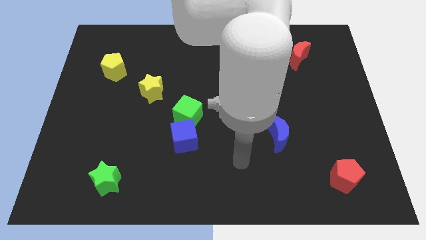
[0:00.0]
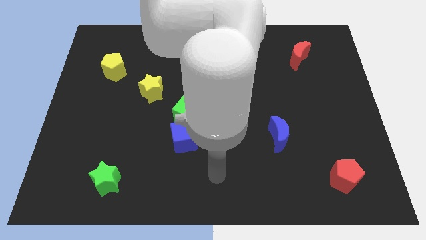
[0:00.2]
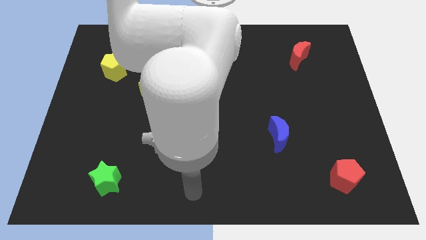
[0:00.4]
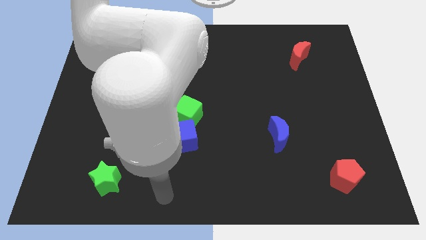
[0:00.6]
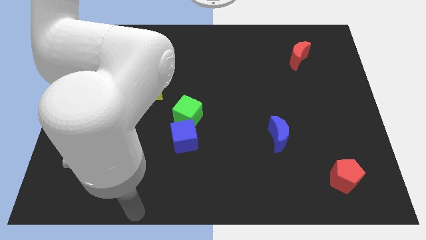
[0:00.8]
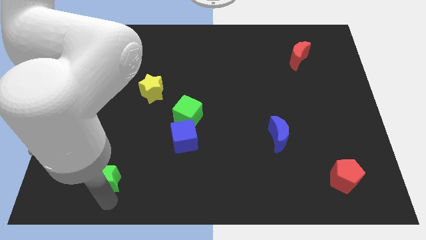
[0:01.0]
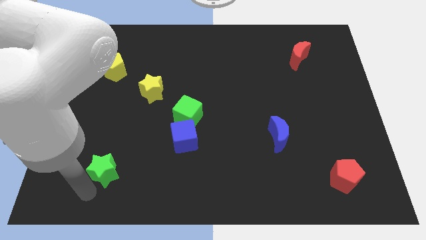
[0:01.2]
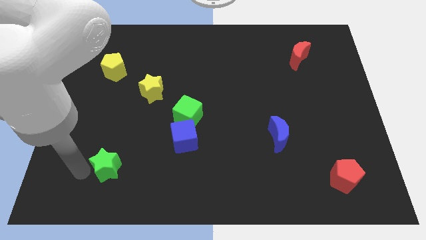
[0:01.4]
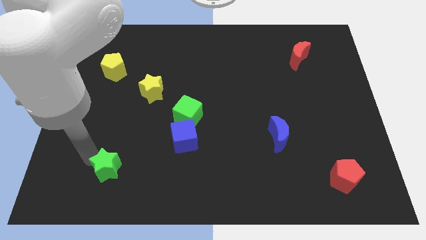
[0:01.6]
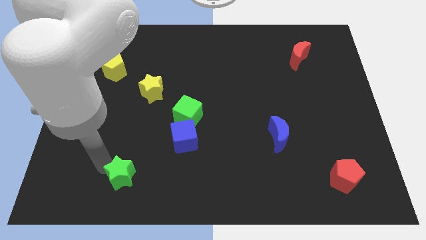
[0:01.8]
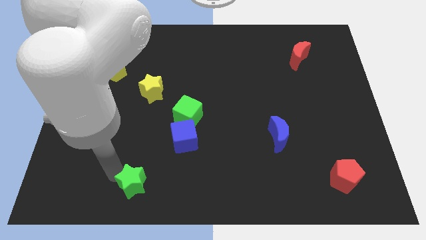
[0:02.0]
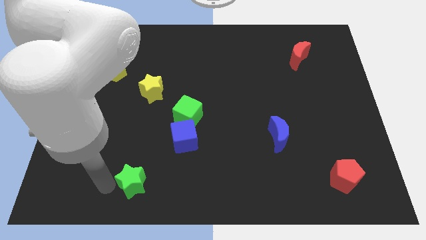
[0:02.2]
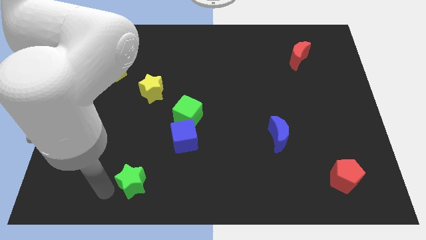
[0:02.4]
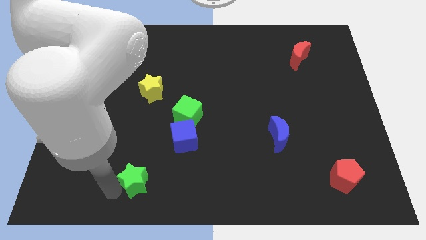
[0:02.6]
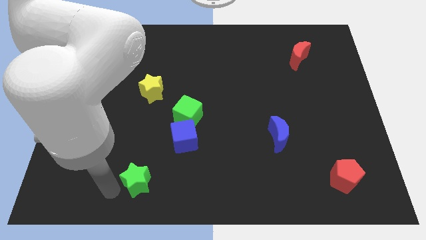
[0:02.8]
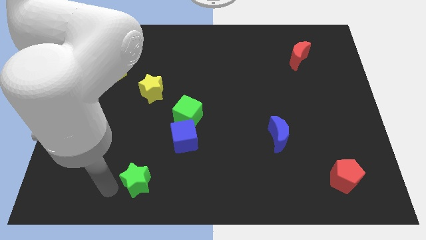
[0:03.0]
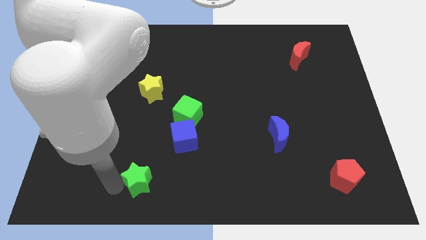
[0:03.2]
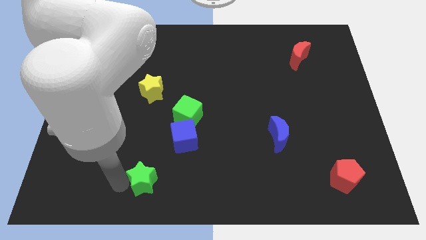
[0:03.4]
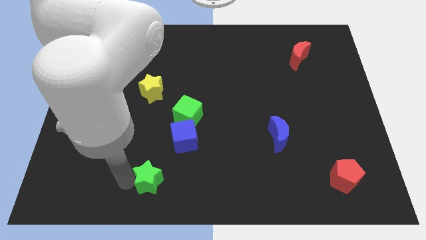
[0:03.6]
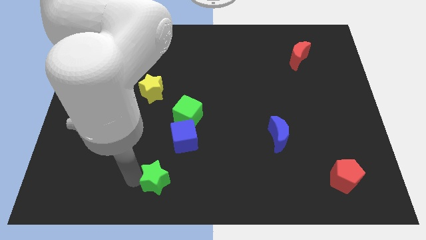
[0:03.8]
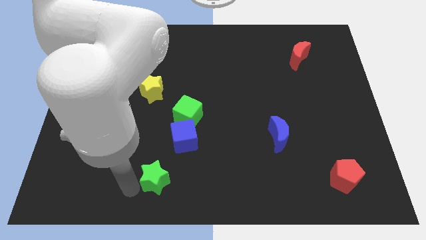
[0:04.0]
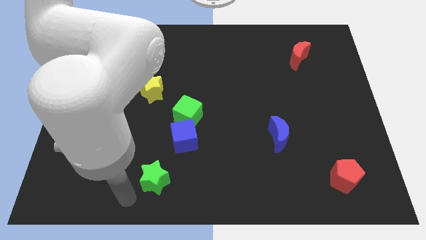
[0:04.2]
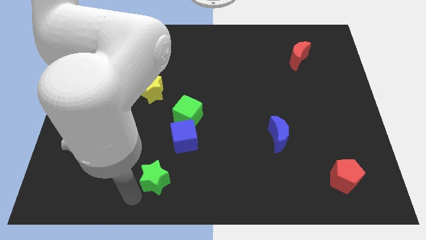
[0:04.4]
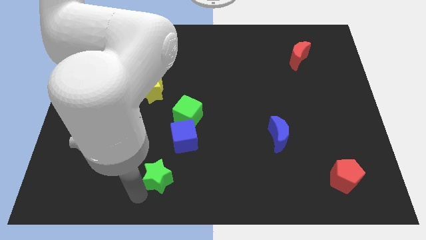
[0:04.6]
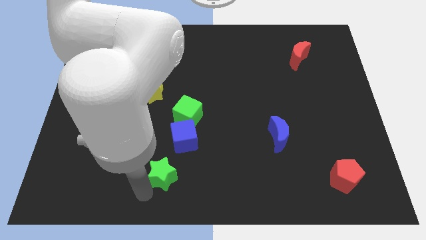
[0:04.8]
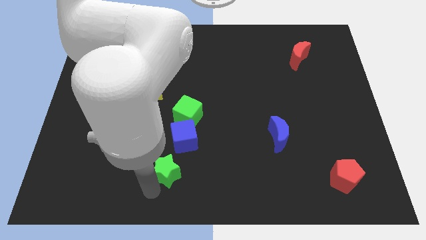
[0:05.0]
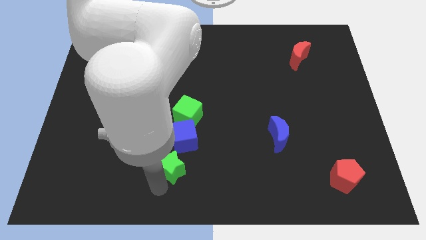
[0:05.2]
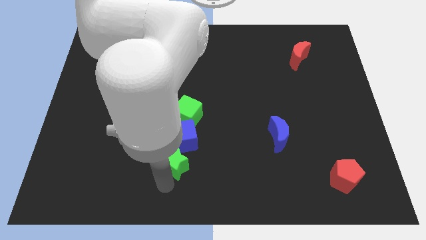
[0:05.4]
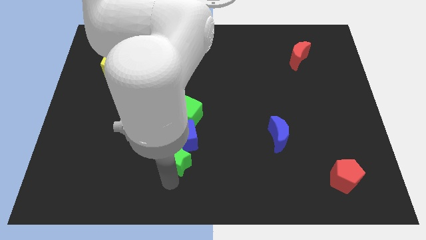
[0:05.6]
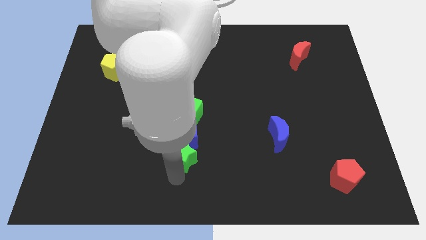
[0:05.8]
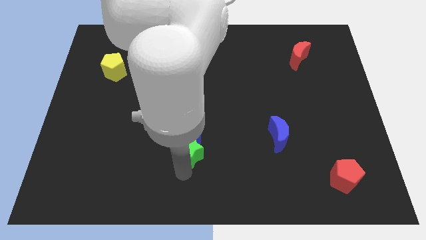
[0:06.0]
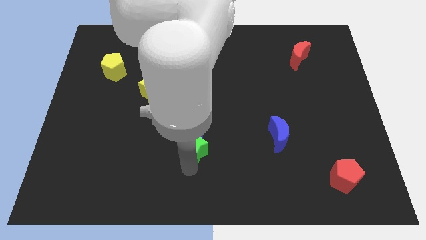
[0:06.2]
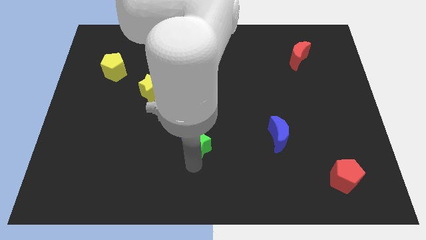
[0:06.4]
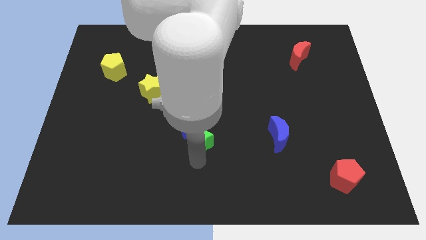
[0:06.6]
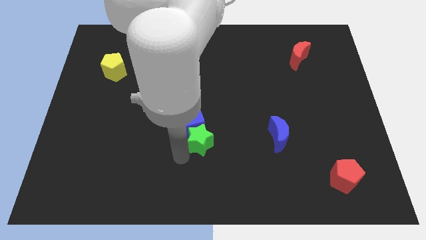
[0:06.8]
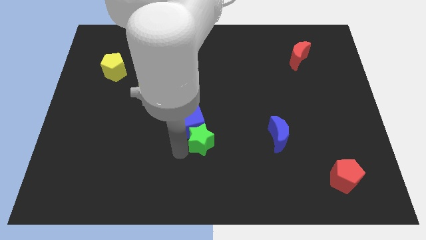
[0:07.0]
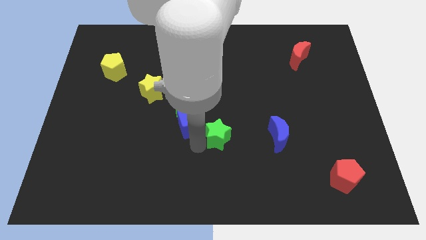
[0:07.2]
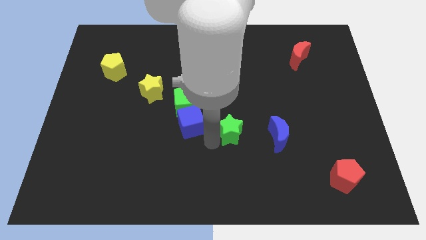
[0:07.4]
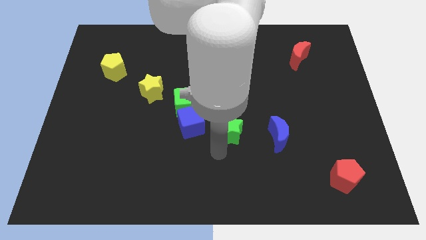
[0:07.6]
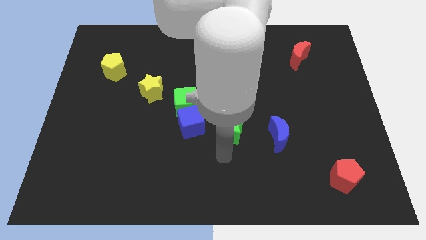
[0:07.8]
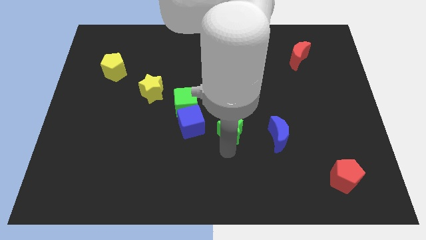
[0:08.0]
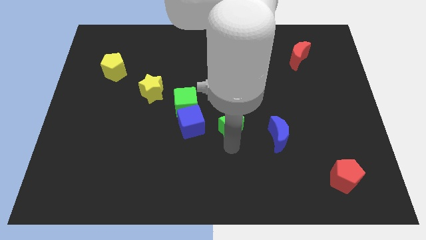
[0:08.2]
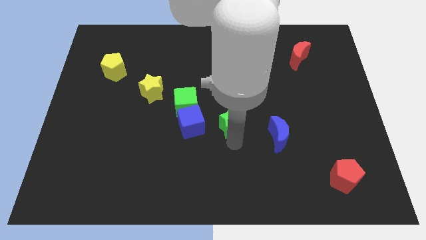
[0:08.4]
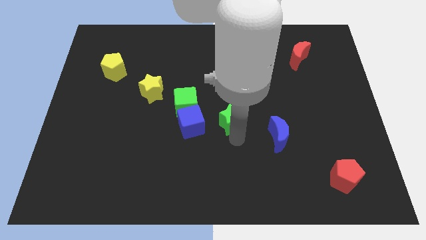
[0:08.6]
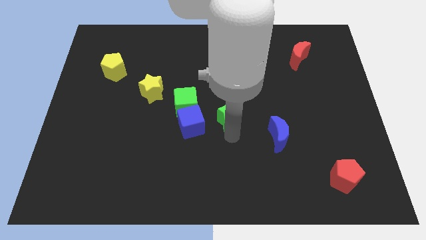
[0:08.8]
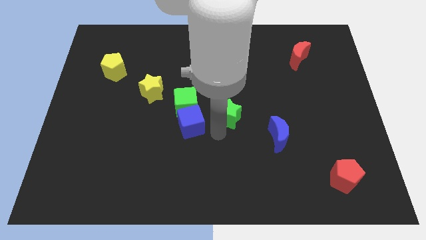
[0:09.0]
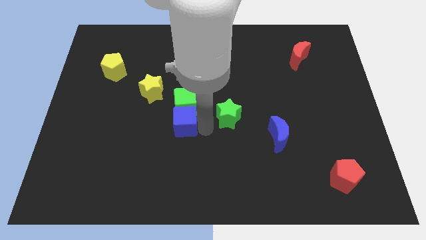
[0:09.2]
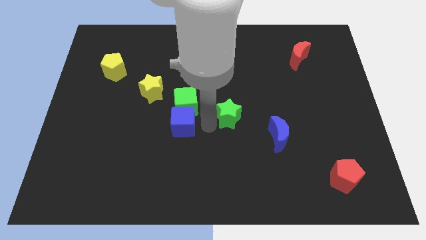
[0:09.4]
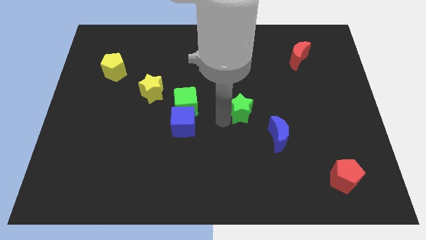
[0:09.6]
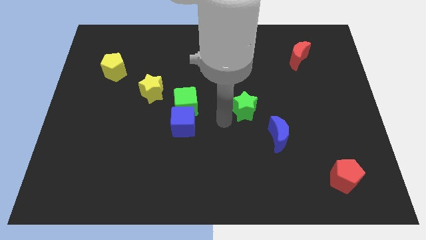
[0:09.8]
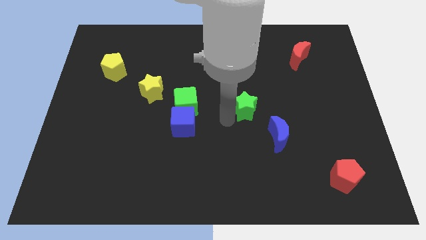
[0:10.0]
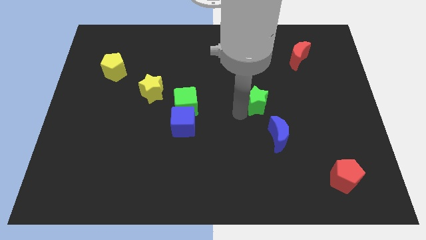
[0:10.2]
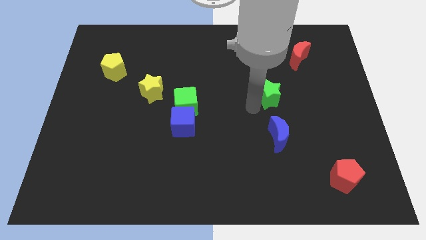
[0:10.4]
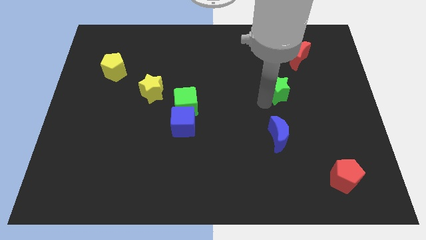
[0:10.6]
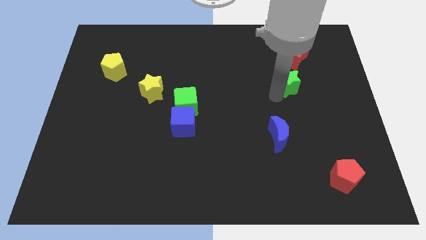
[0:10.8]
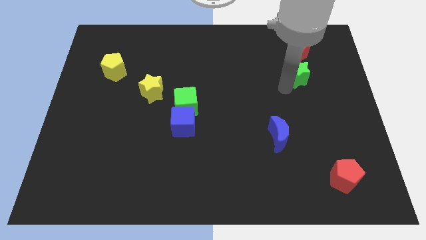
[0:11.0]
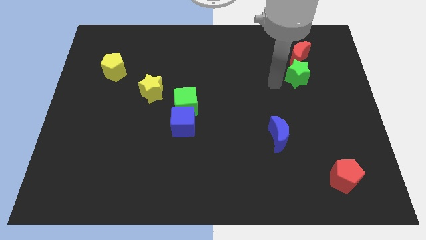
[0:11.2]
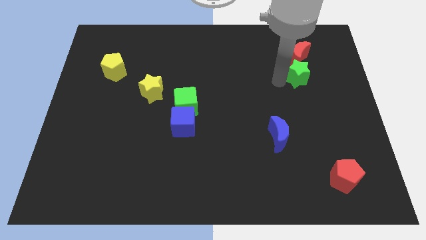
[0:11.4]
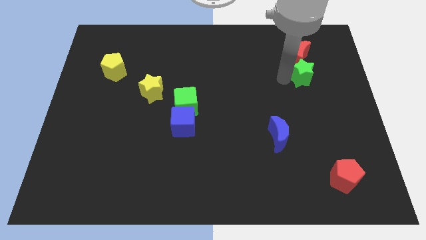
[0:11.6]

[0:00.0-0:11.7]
slide the green star diagonally down and to the right of the red moon
